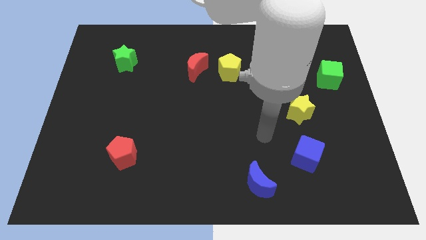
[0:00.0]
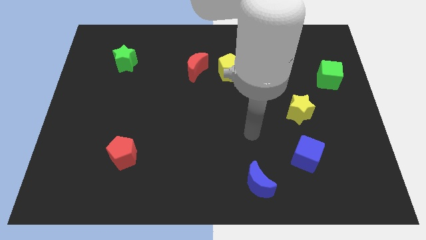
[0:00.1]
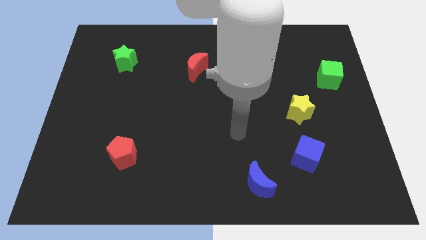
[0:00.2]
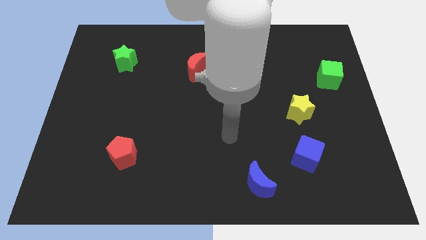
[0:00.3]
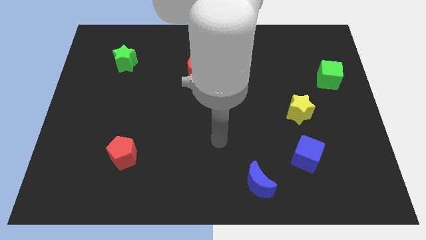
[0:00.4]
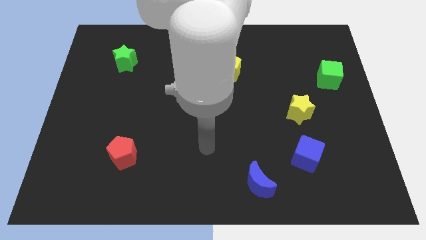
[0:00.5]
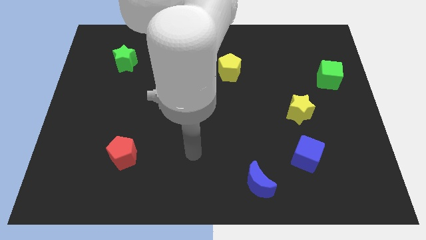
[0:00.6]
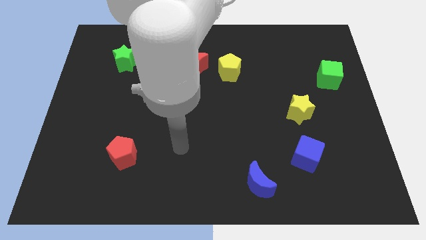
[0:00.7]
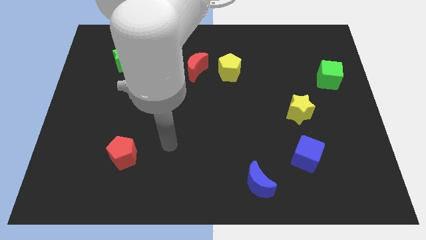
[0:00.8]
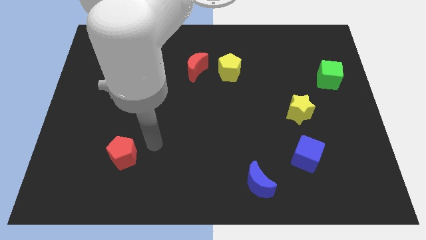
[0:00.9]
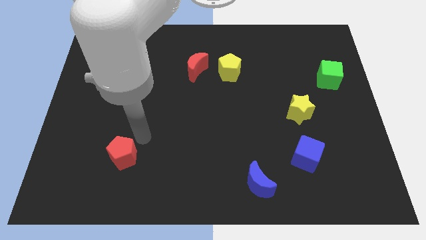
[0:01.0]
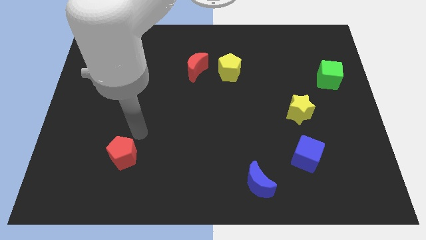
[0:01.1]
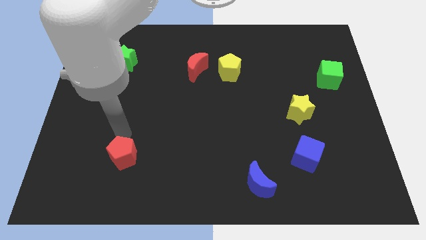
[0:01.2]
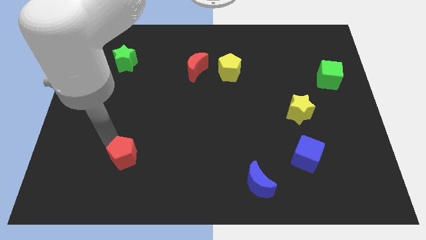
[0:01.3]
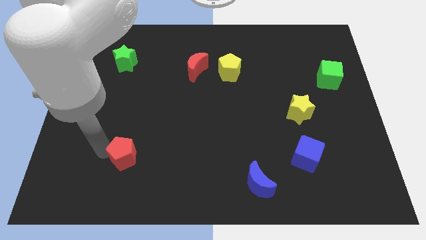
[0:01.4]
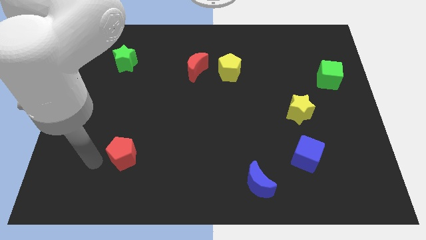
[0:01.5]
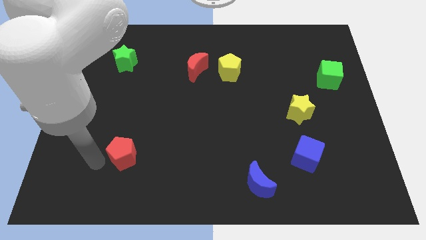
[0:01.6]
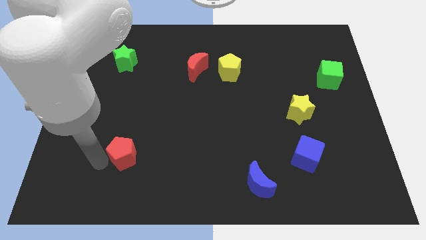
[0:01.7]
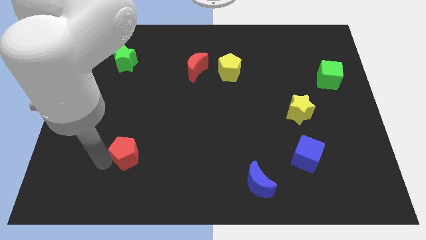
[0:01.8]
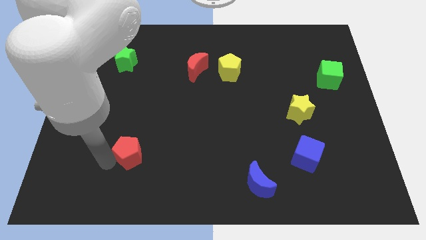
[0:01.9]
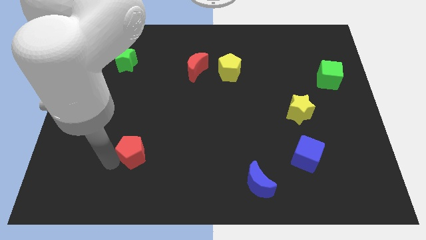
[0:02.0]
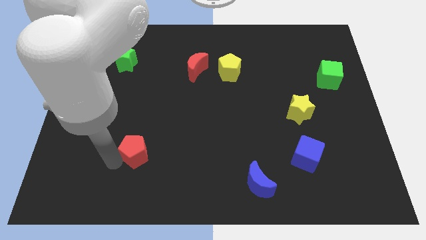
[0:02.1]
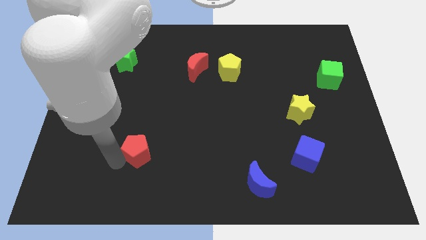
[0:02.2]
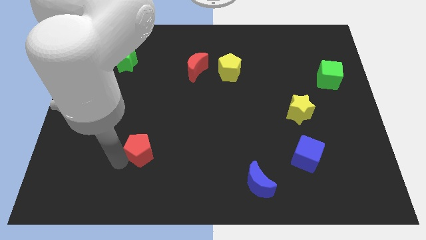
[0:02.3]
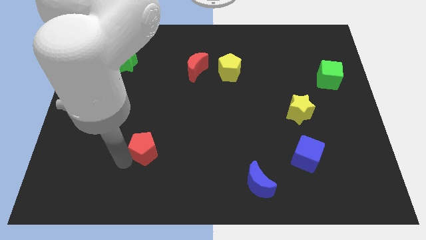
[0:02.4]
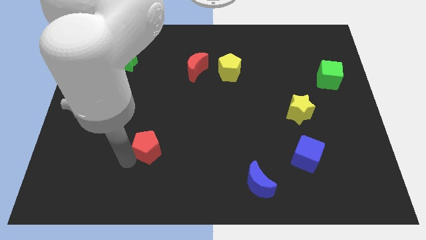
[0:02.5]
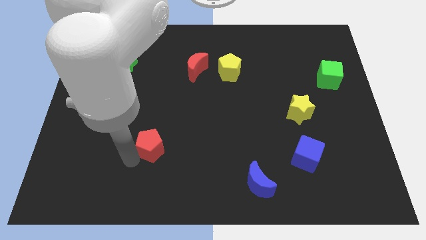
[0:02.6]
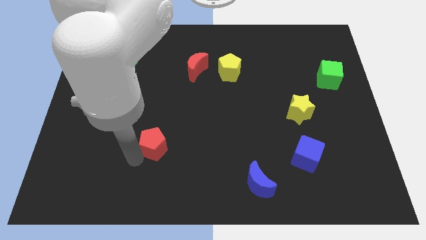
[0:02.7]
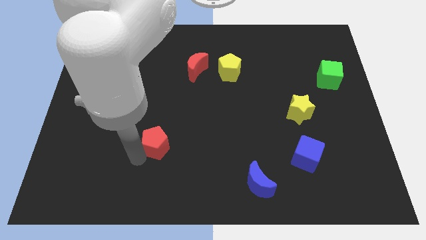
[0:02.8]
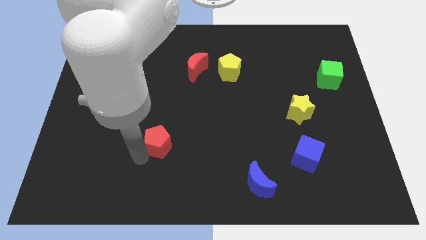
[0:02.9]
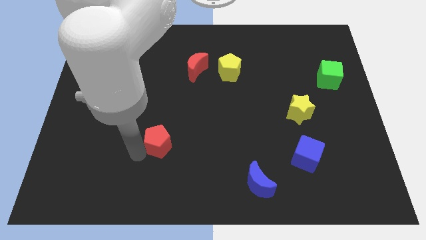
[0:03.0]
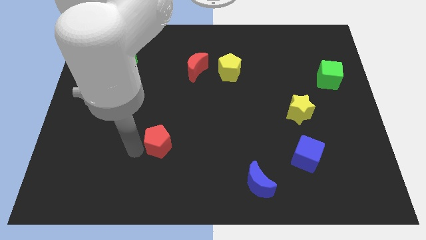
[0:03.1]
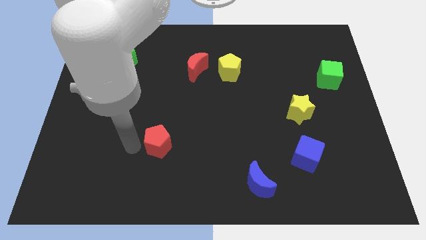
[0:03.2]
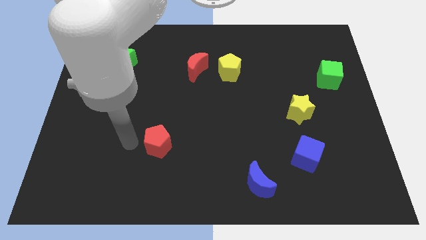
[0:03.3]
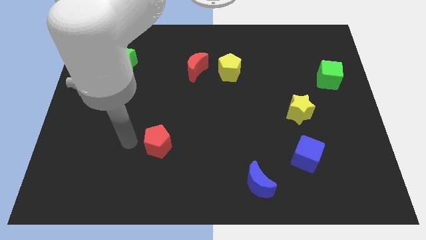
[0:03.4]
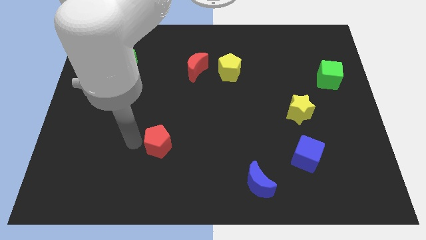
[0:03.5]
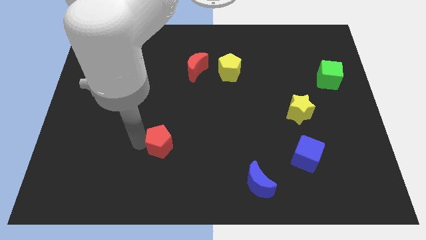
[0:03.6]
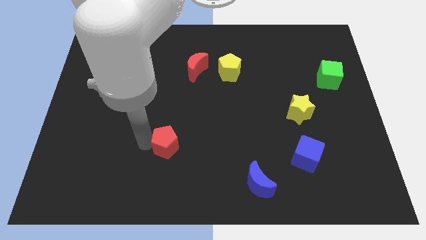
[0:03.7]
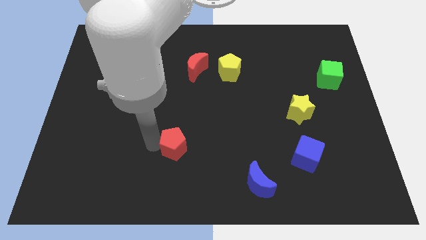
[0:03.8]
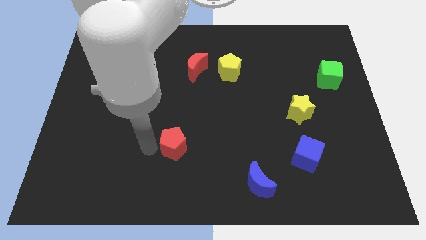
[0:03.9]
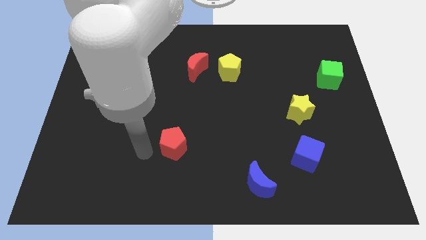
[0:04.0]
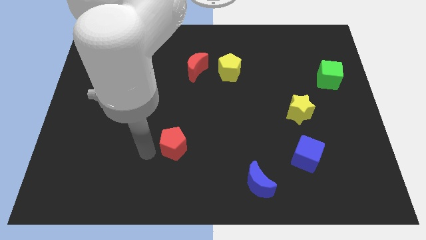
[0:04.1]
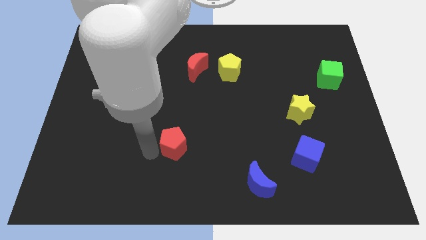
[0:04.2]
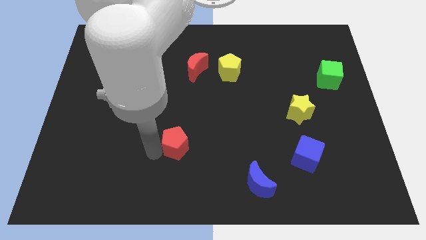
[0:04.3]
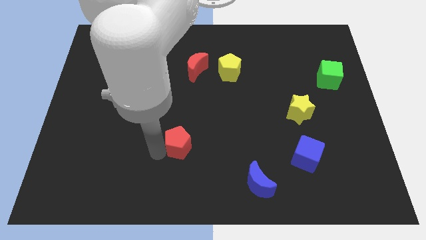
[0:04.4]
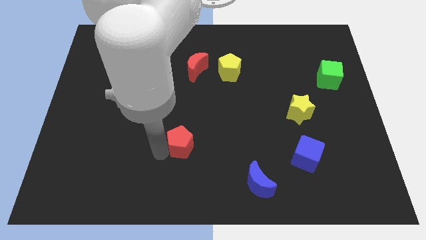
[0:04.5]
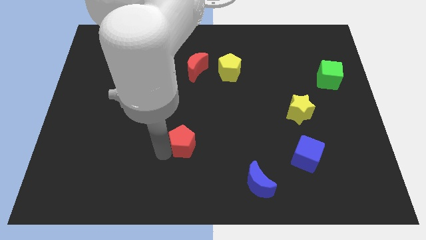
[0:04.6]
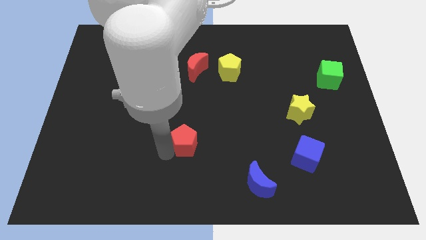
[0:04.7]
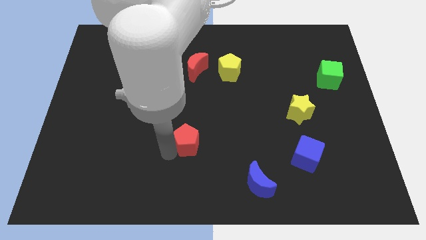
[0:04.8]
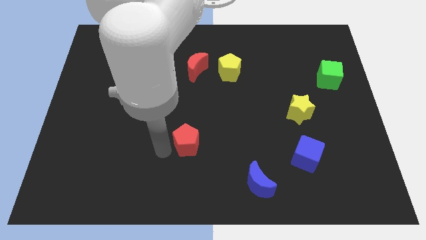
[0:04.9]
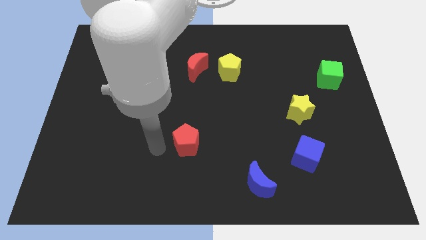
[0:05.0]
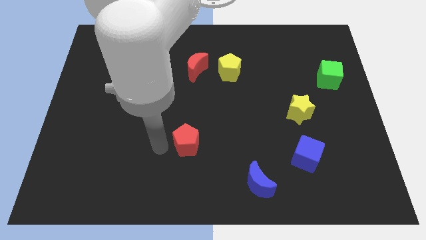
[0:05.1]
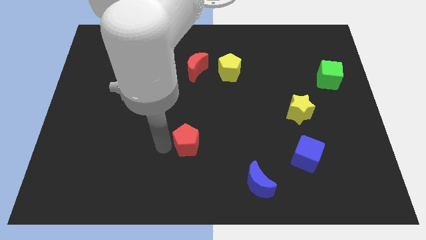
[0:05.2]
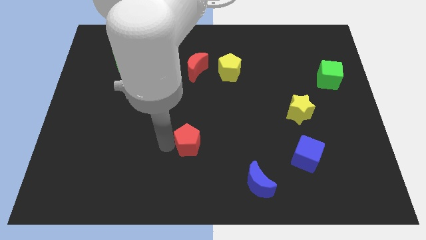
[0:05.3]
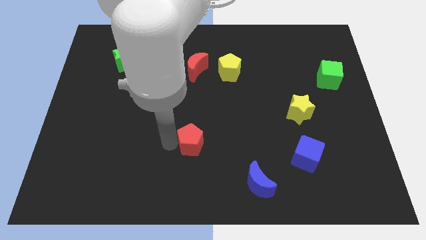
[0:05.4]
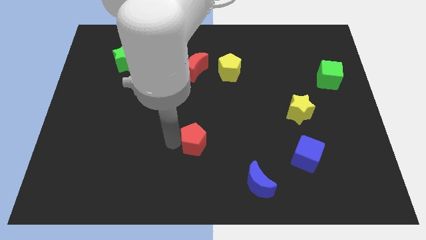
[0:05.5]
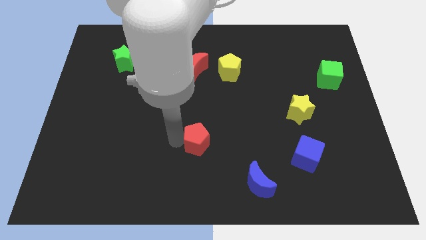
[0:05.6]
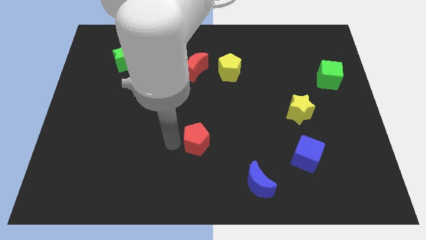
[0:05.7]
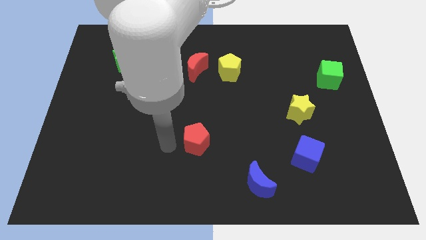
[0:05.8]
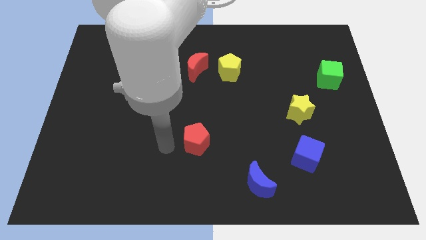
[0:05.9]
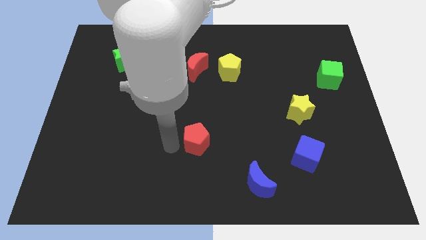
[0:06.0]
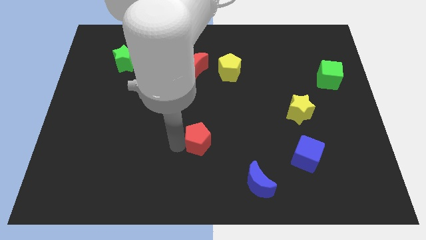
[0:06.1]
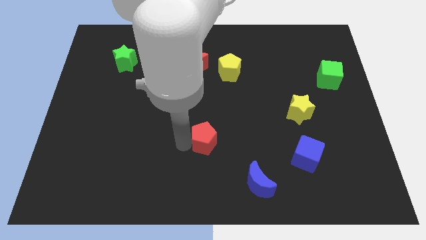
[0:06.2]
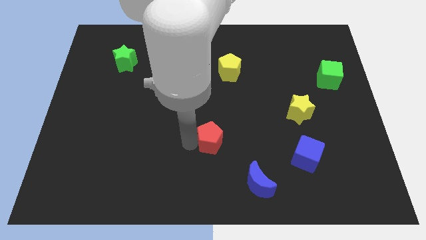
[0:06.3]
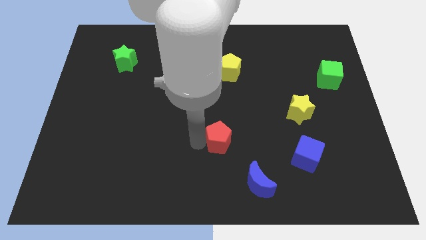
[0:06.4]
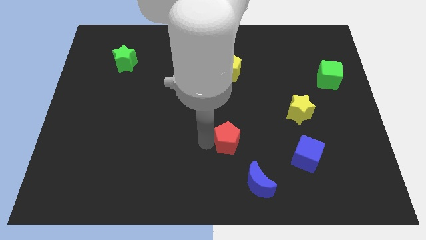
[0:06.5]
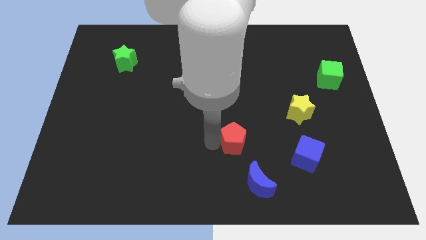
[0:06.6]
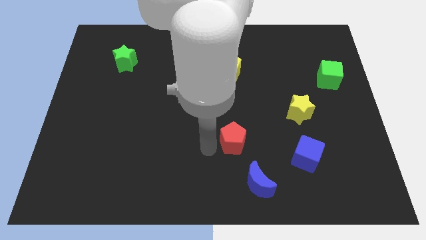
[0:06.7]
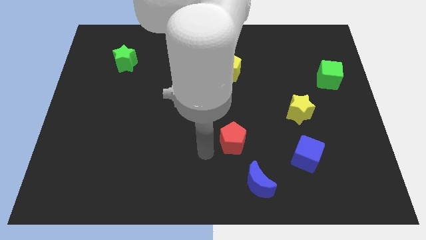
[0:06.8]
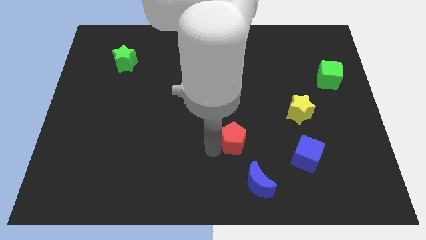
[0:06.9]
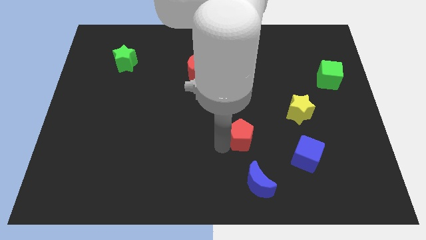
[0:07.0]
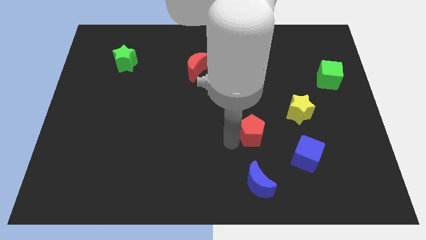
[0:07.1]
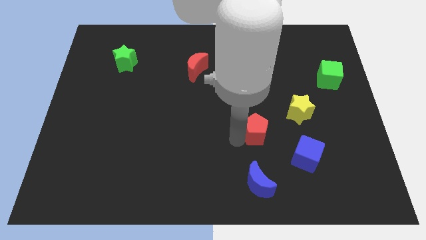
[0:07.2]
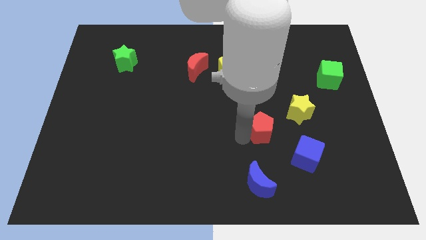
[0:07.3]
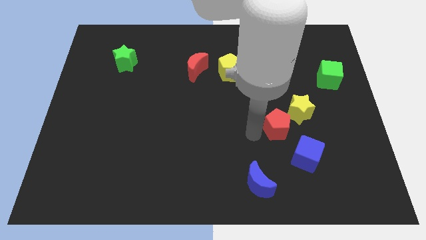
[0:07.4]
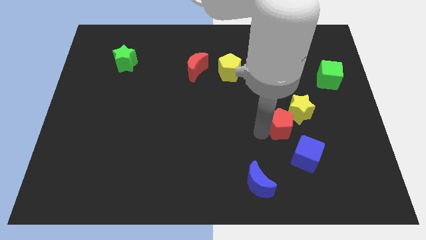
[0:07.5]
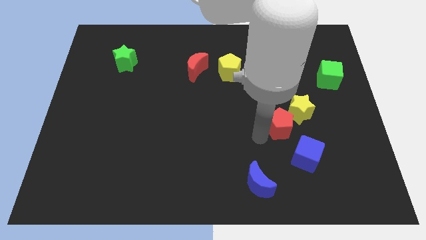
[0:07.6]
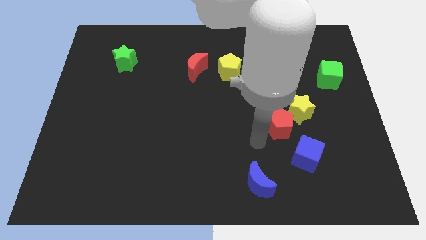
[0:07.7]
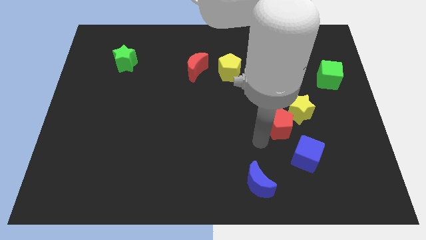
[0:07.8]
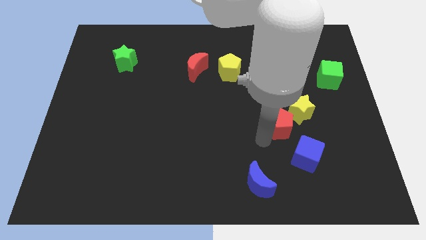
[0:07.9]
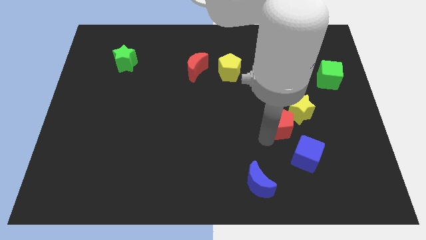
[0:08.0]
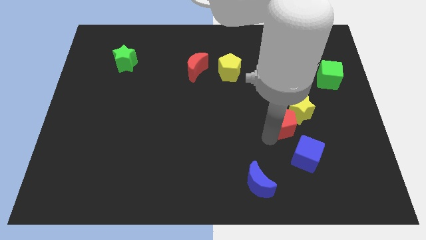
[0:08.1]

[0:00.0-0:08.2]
slide the red pentagon close to the yellow star
